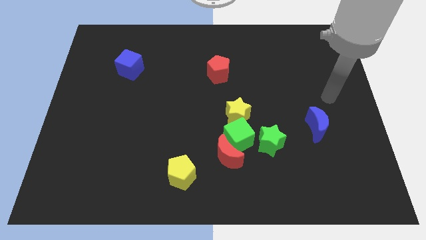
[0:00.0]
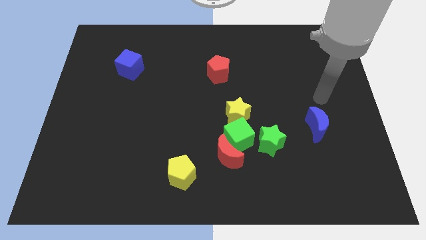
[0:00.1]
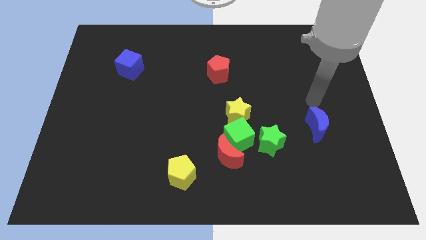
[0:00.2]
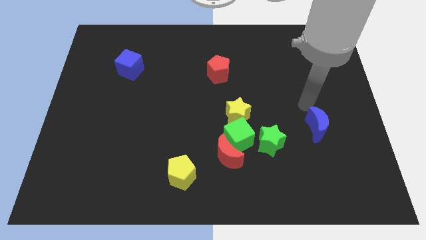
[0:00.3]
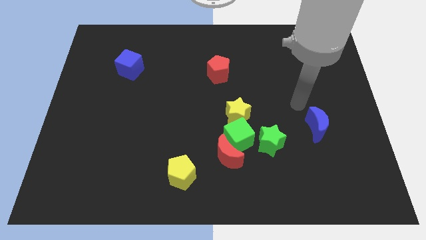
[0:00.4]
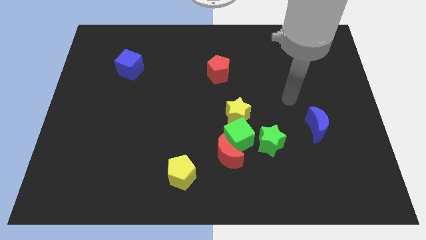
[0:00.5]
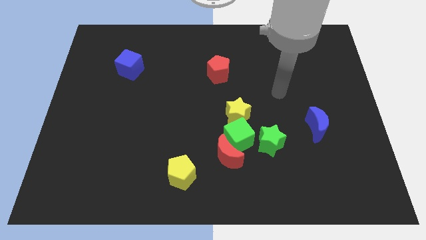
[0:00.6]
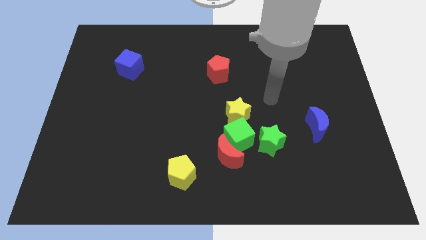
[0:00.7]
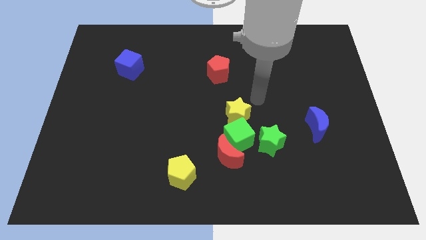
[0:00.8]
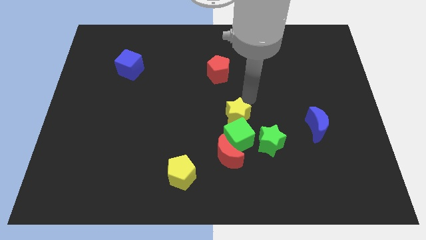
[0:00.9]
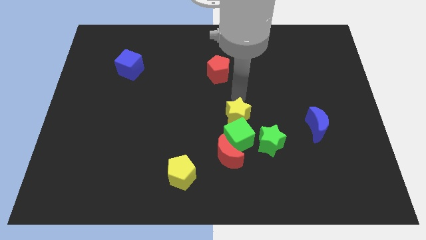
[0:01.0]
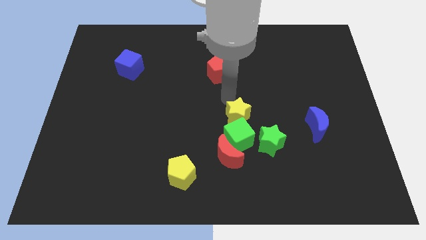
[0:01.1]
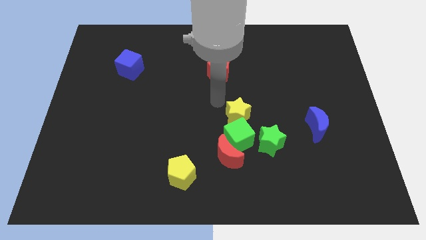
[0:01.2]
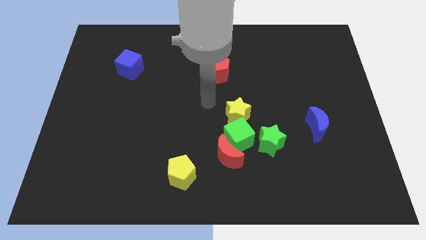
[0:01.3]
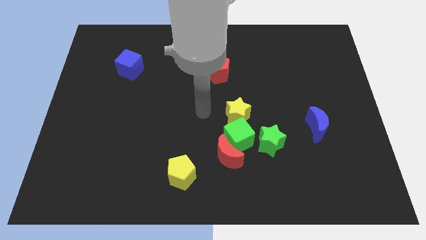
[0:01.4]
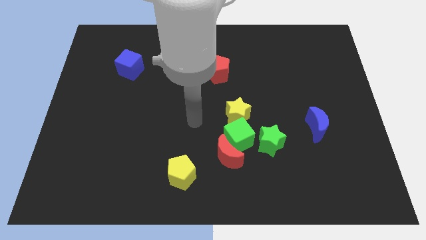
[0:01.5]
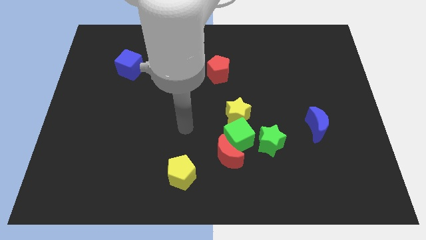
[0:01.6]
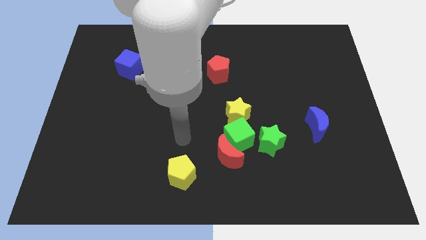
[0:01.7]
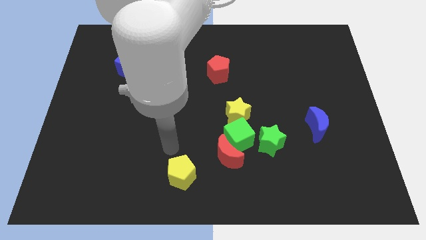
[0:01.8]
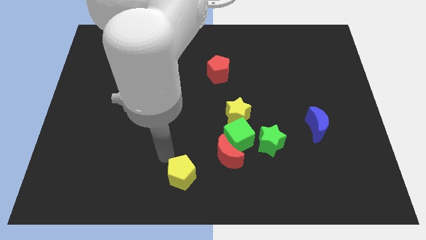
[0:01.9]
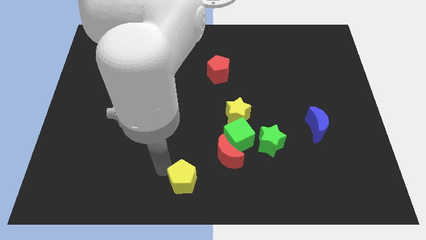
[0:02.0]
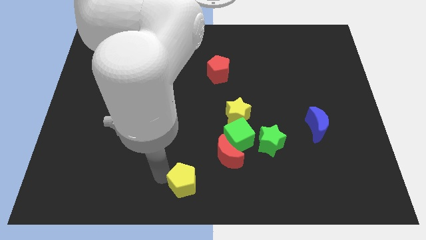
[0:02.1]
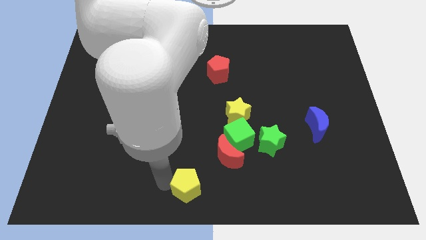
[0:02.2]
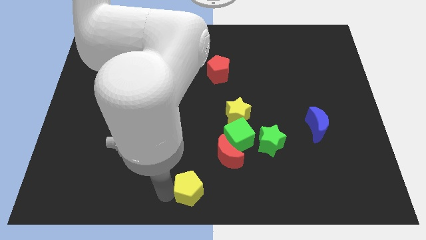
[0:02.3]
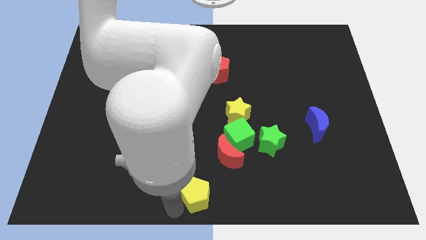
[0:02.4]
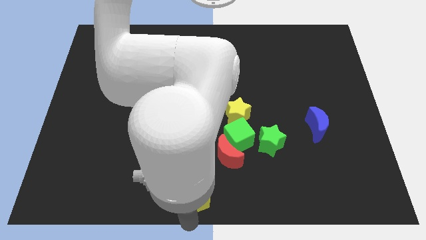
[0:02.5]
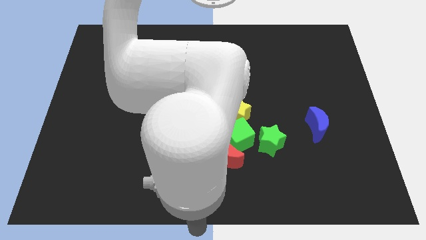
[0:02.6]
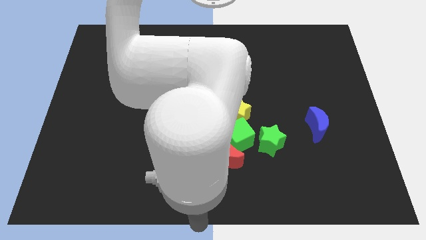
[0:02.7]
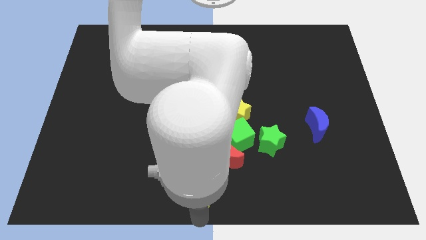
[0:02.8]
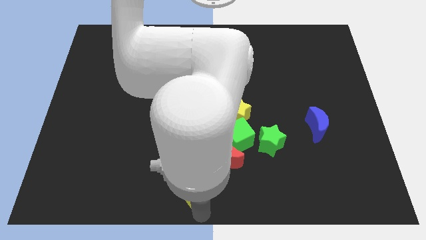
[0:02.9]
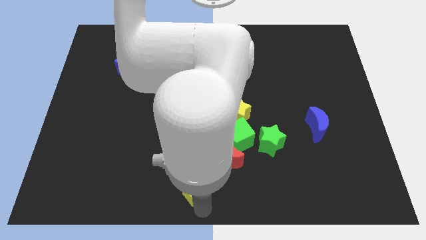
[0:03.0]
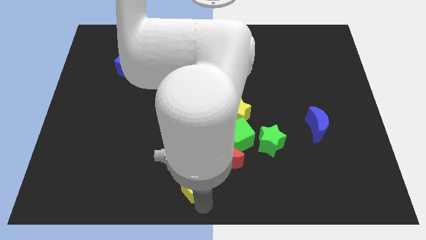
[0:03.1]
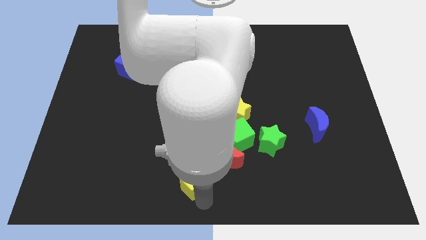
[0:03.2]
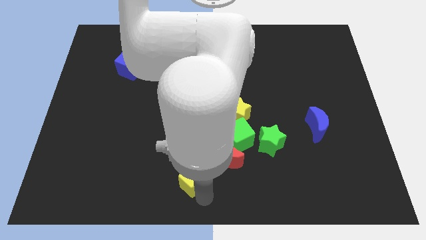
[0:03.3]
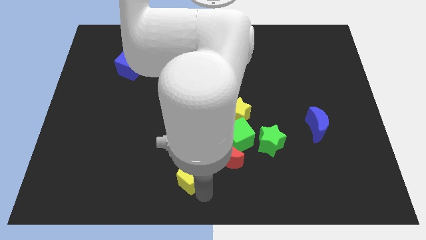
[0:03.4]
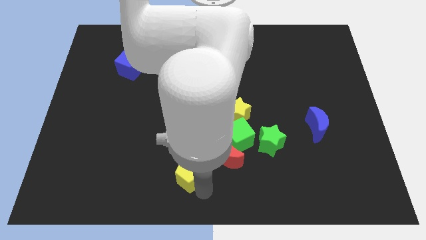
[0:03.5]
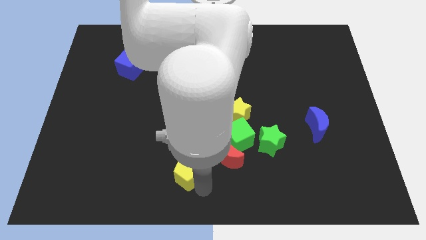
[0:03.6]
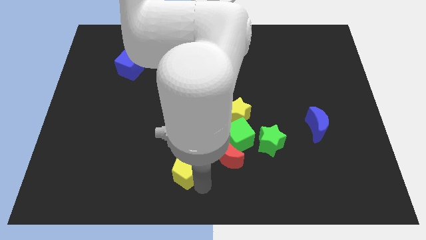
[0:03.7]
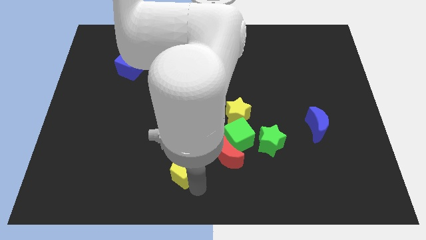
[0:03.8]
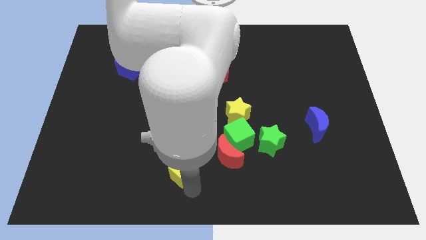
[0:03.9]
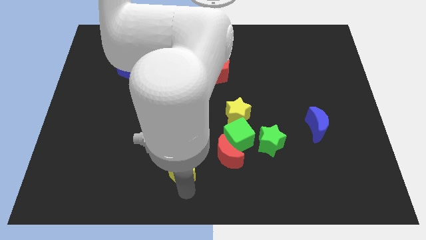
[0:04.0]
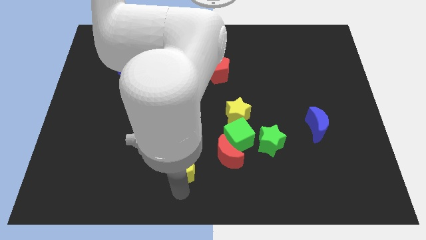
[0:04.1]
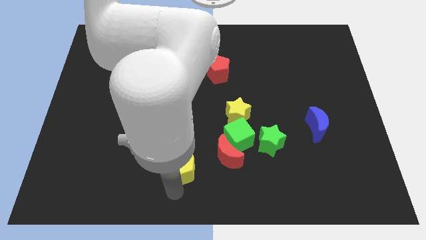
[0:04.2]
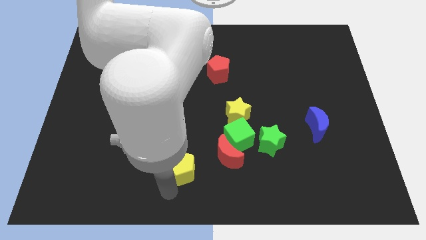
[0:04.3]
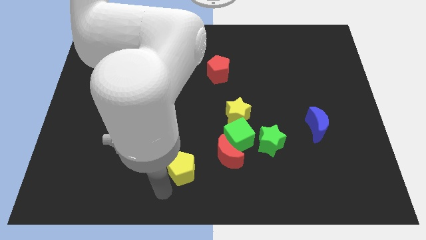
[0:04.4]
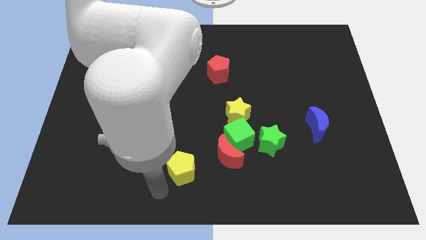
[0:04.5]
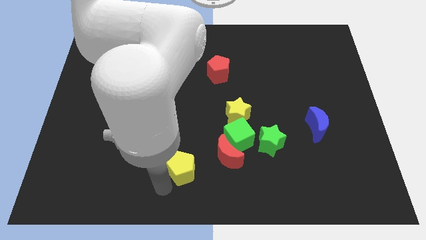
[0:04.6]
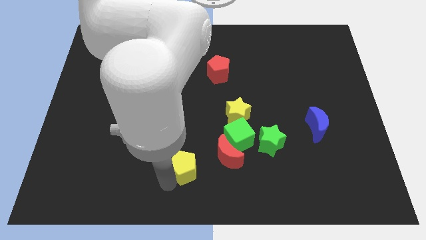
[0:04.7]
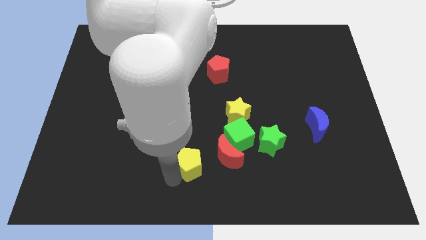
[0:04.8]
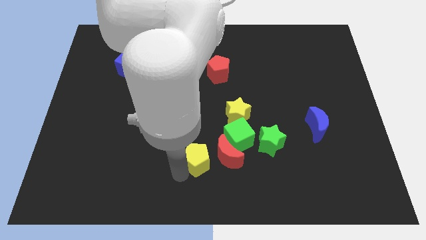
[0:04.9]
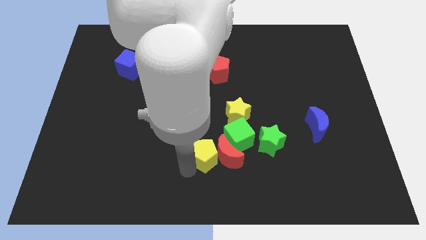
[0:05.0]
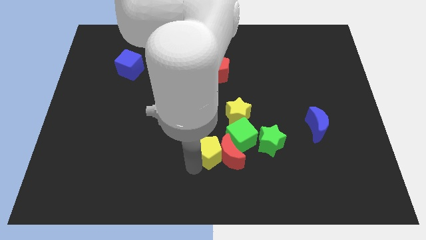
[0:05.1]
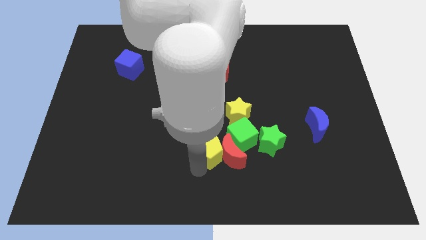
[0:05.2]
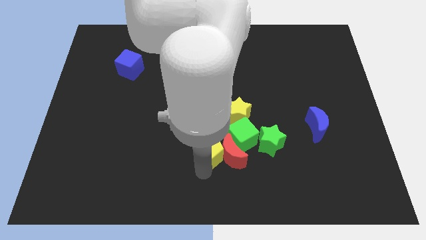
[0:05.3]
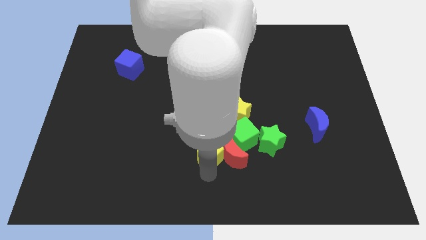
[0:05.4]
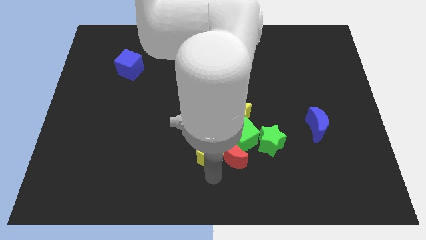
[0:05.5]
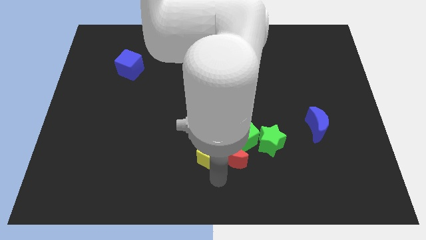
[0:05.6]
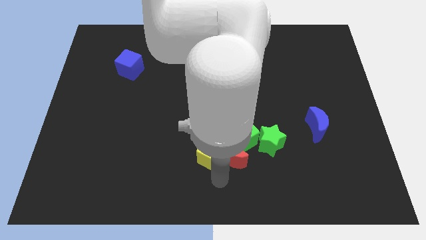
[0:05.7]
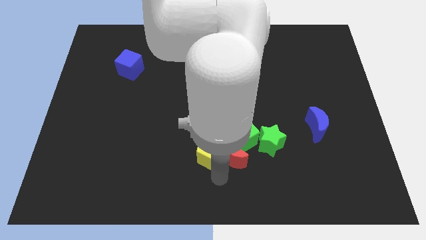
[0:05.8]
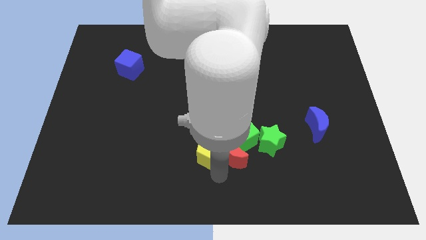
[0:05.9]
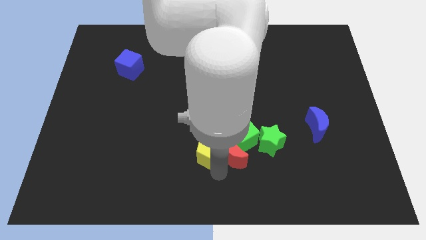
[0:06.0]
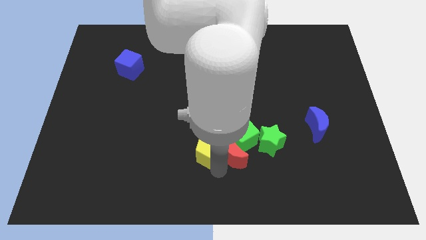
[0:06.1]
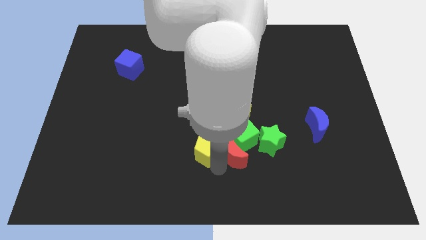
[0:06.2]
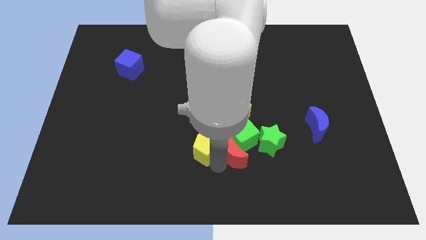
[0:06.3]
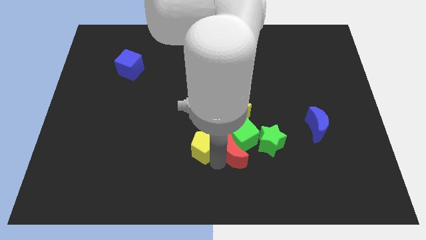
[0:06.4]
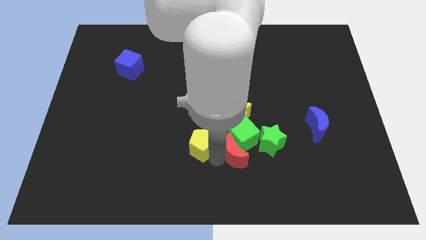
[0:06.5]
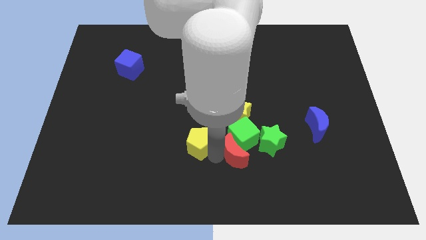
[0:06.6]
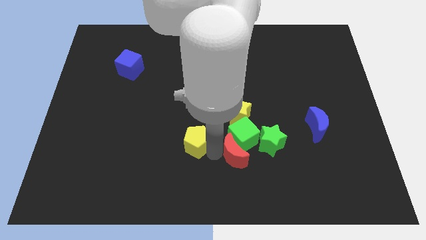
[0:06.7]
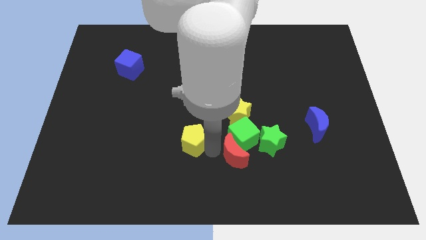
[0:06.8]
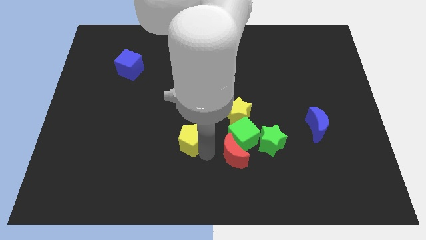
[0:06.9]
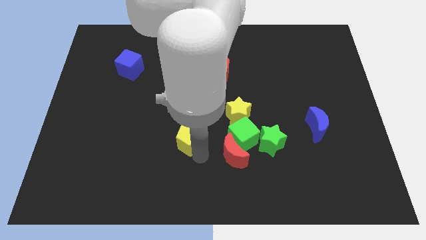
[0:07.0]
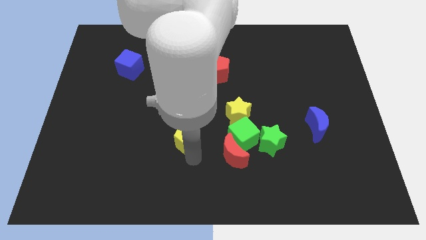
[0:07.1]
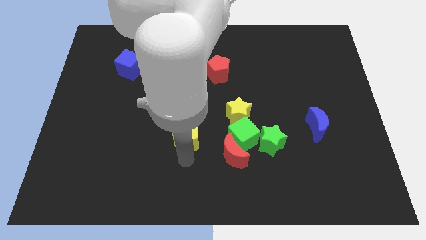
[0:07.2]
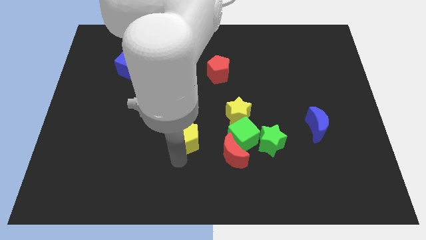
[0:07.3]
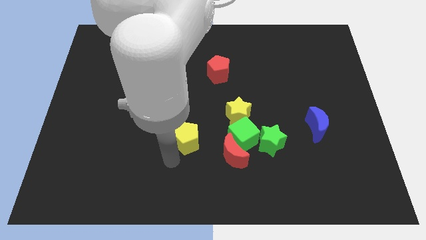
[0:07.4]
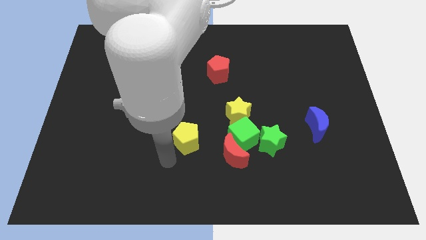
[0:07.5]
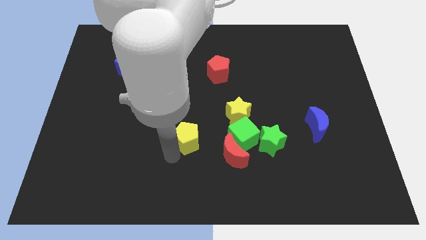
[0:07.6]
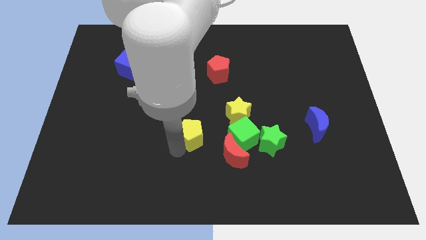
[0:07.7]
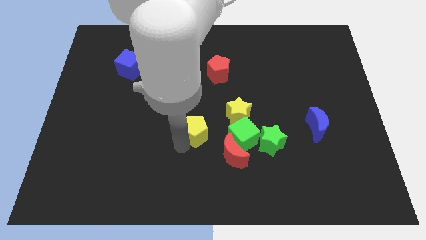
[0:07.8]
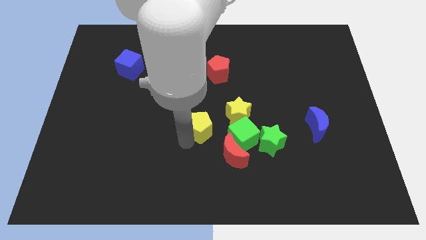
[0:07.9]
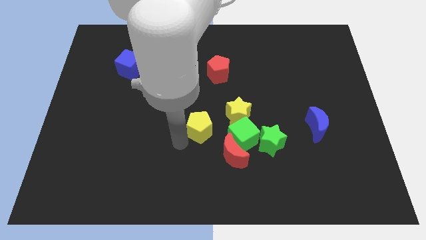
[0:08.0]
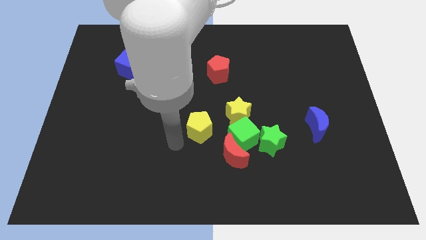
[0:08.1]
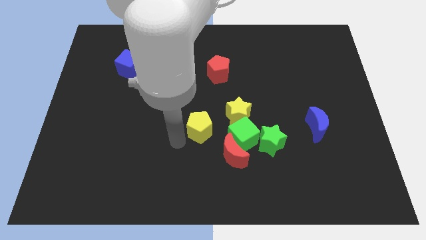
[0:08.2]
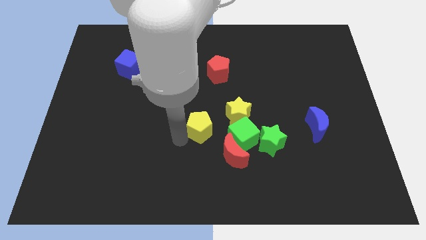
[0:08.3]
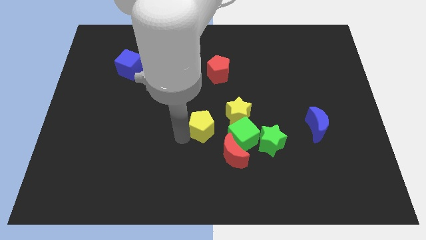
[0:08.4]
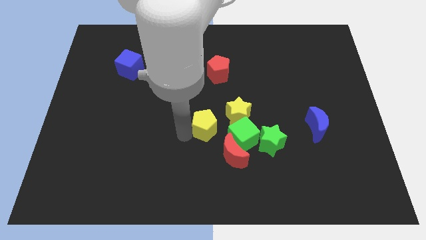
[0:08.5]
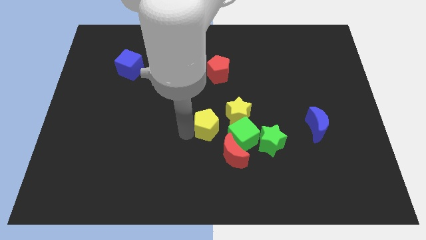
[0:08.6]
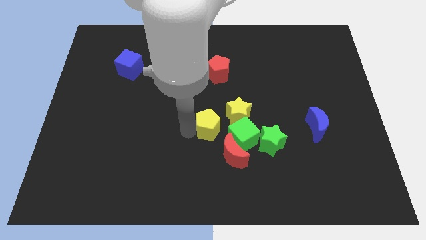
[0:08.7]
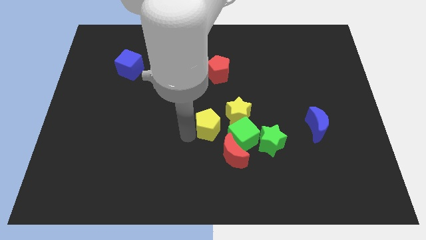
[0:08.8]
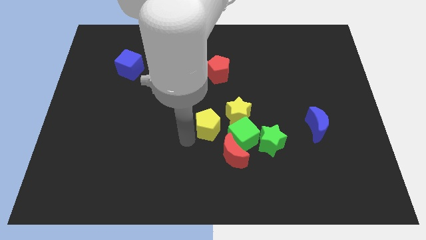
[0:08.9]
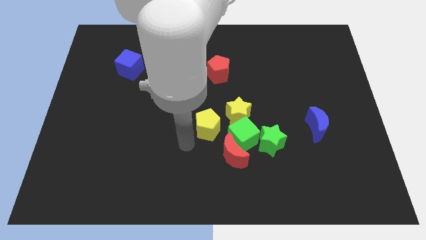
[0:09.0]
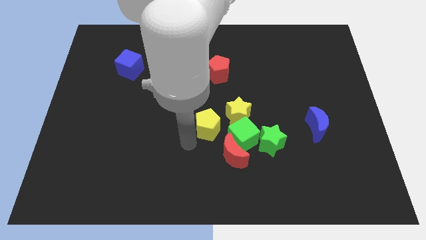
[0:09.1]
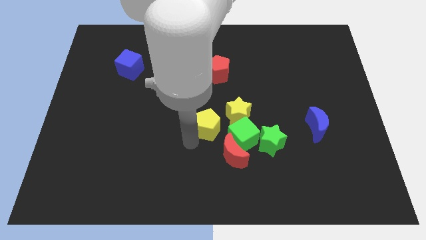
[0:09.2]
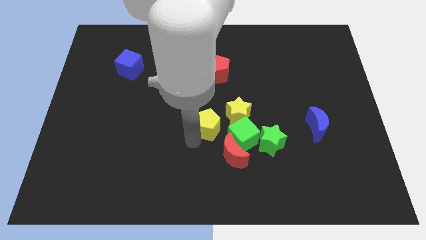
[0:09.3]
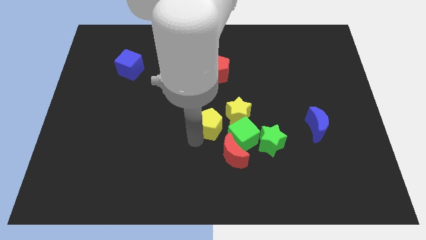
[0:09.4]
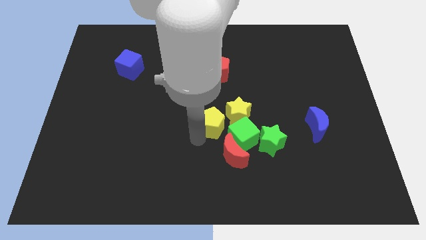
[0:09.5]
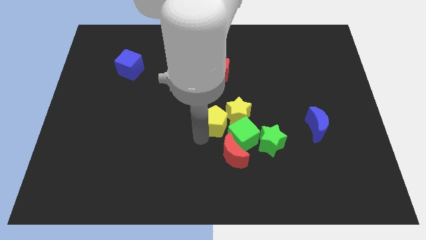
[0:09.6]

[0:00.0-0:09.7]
move the yellow pentagon towards the yellow star
